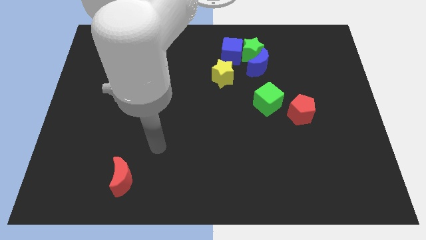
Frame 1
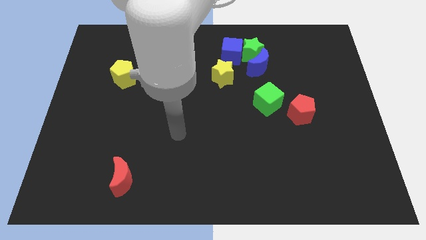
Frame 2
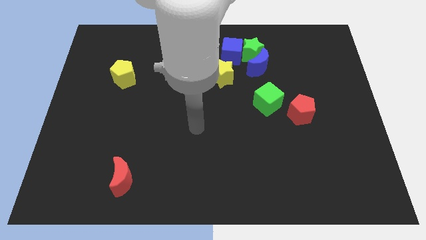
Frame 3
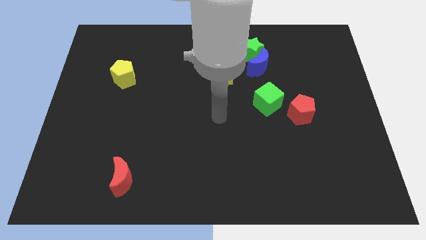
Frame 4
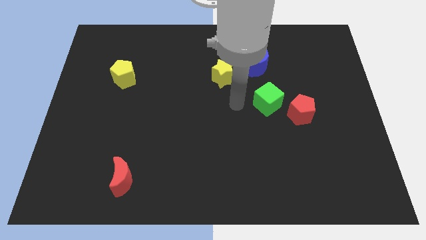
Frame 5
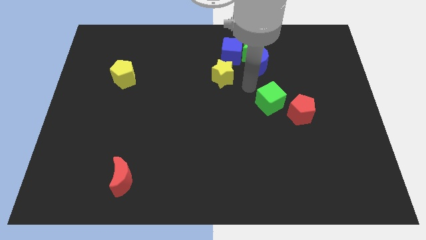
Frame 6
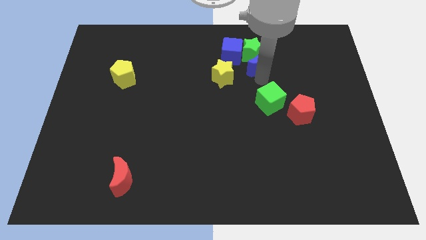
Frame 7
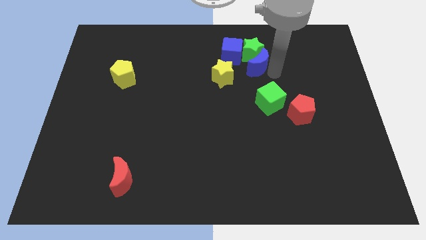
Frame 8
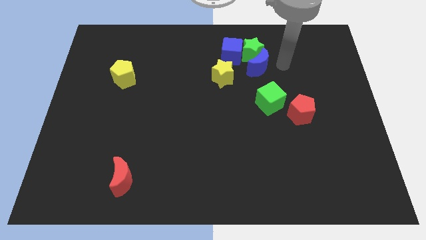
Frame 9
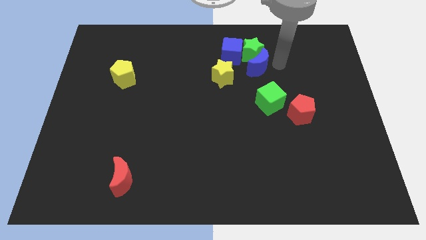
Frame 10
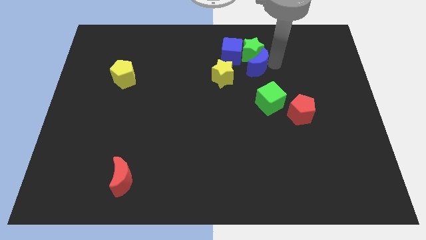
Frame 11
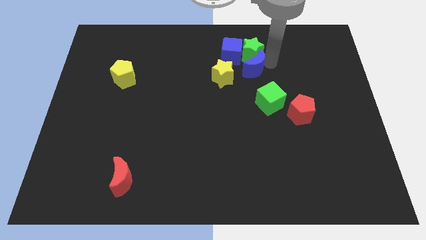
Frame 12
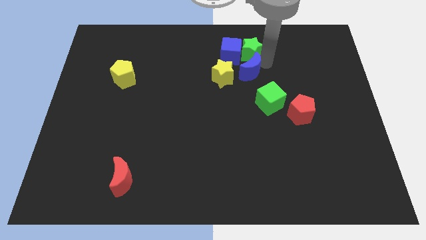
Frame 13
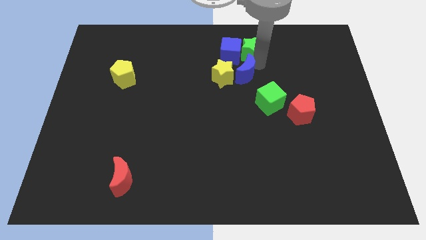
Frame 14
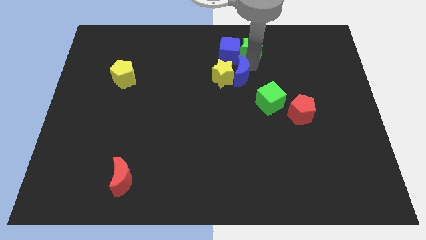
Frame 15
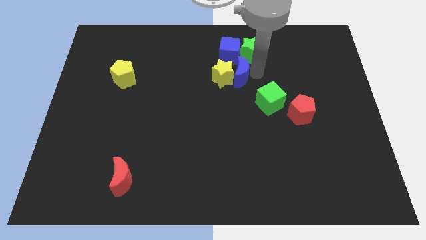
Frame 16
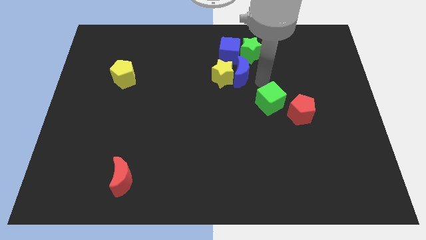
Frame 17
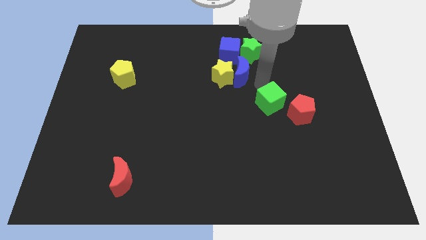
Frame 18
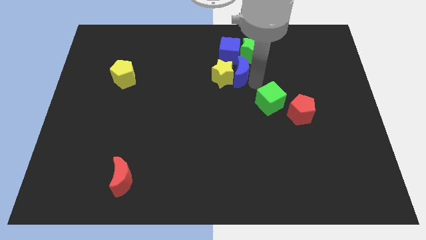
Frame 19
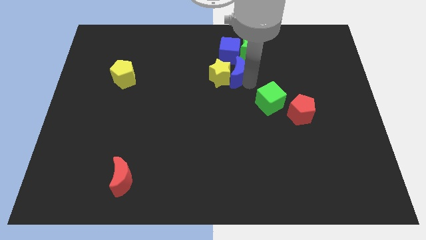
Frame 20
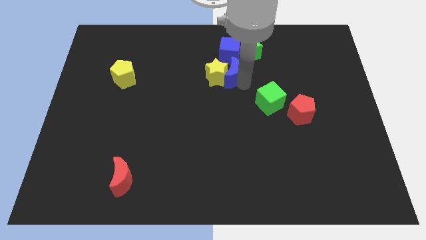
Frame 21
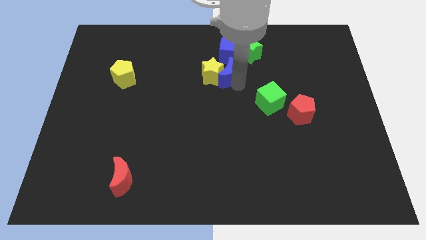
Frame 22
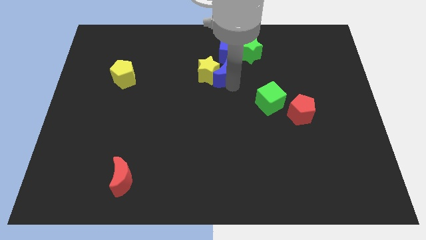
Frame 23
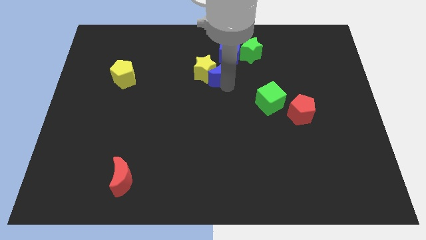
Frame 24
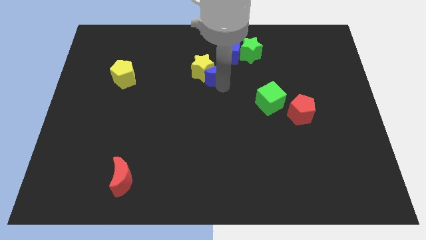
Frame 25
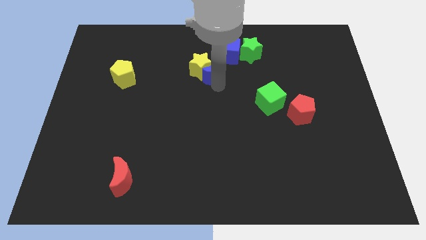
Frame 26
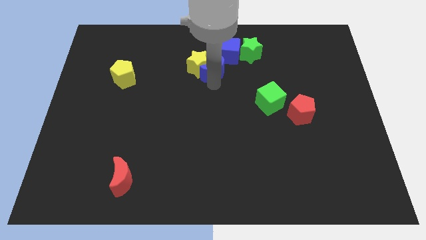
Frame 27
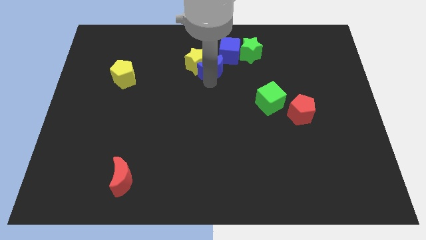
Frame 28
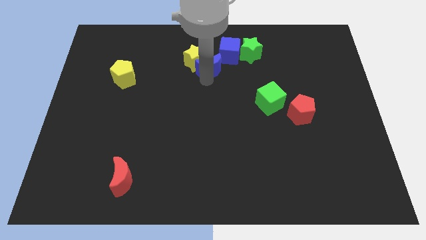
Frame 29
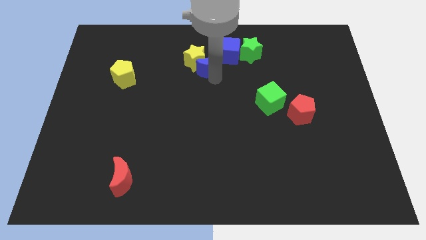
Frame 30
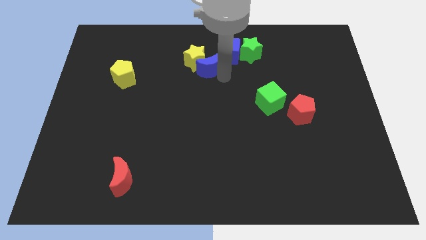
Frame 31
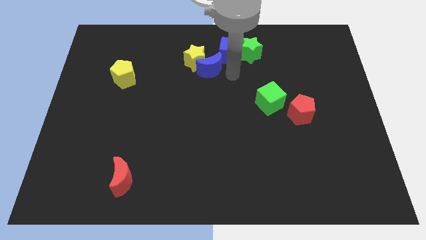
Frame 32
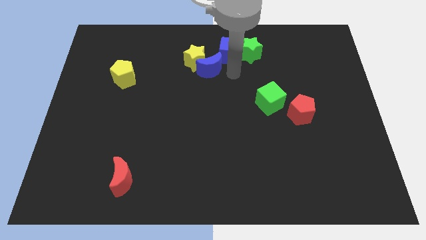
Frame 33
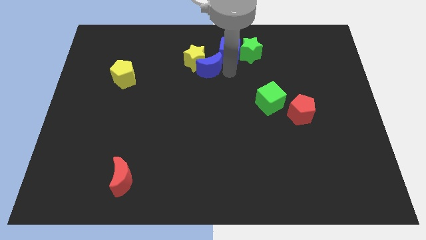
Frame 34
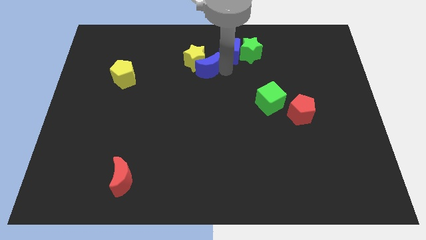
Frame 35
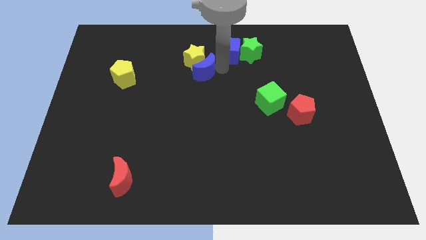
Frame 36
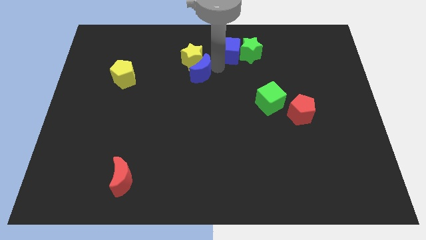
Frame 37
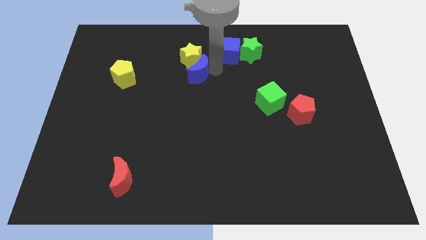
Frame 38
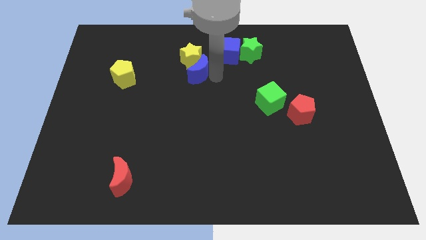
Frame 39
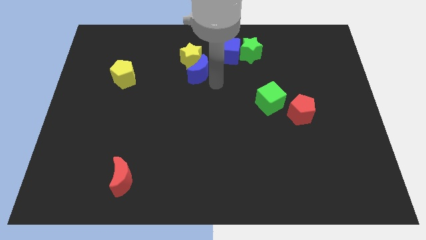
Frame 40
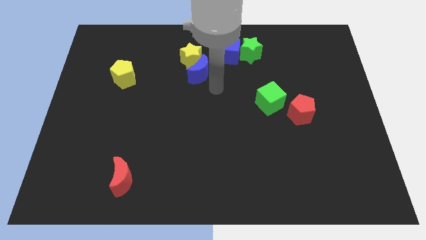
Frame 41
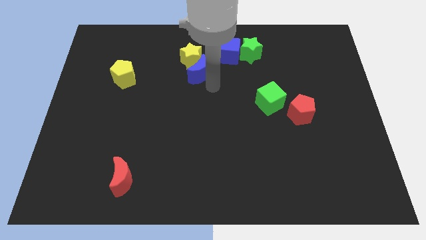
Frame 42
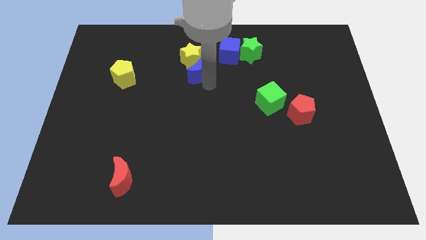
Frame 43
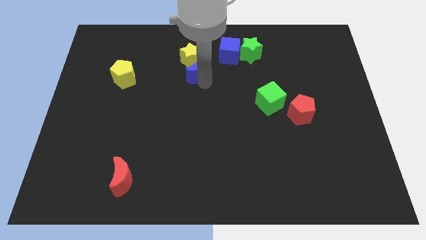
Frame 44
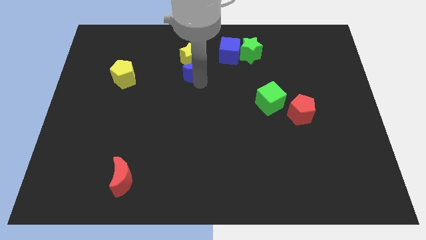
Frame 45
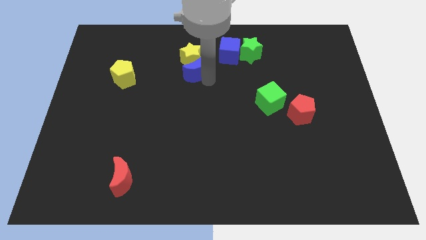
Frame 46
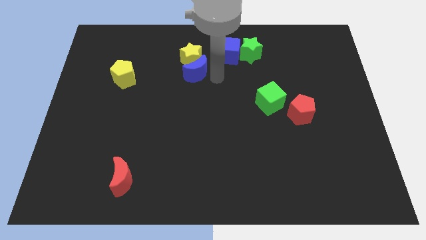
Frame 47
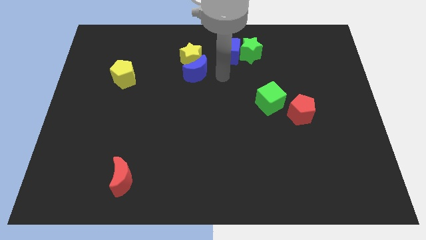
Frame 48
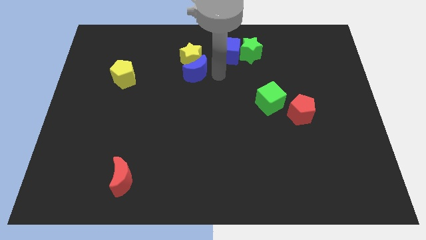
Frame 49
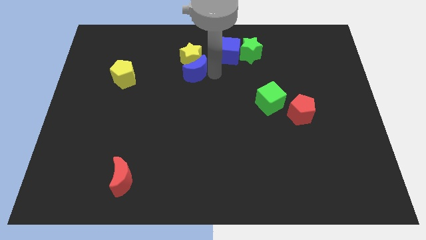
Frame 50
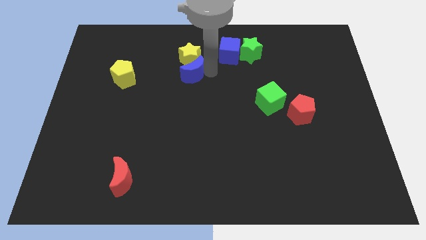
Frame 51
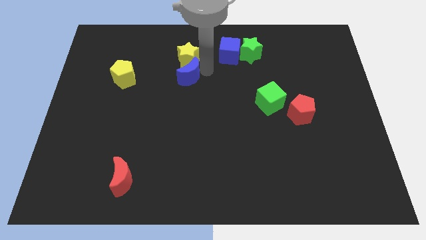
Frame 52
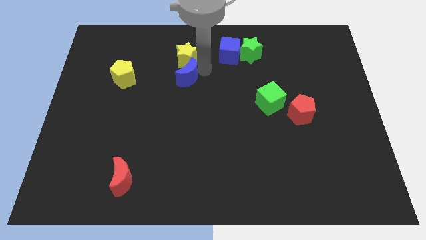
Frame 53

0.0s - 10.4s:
push the blue moon to the right side of the yellow pentagon

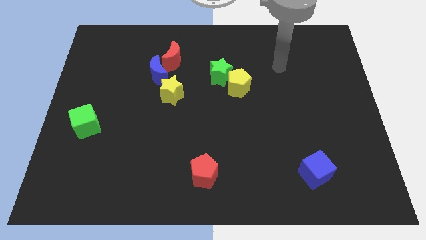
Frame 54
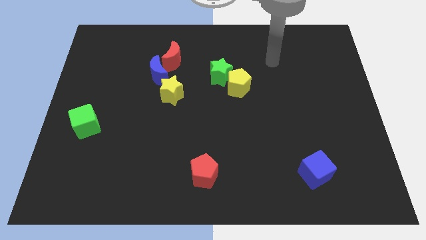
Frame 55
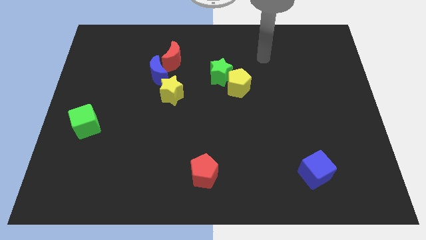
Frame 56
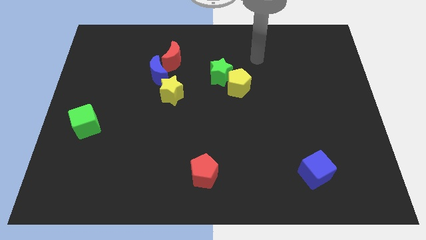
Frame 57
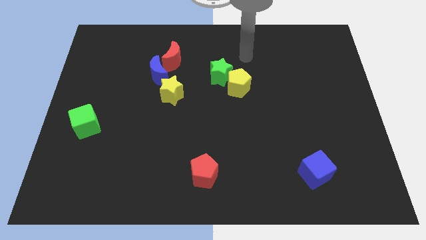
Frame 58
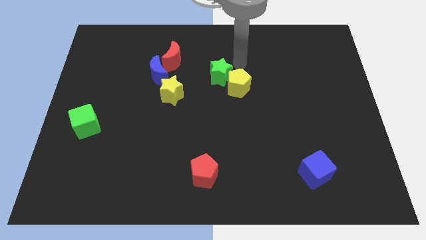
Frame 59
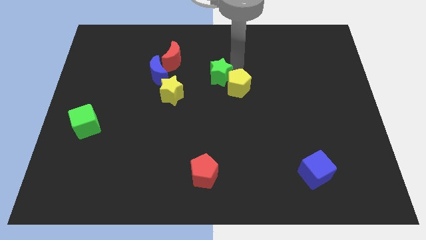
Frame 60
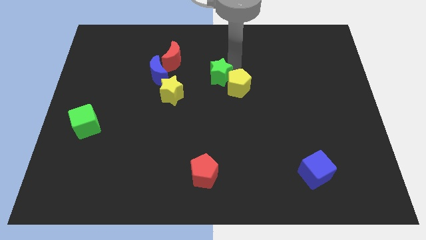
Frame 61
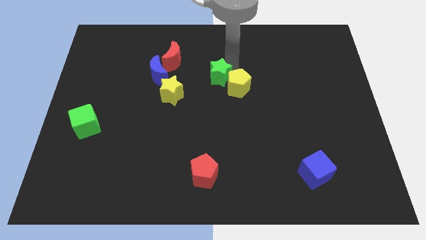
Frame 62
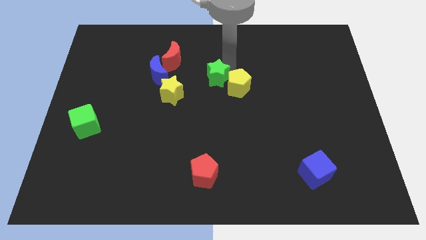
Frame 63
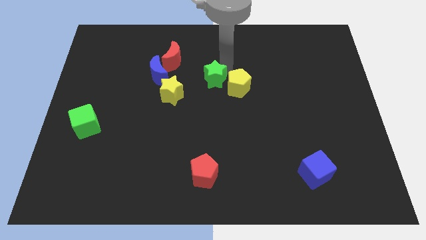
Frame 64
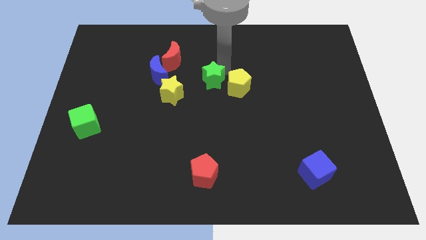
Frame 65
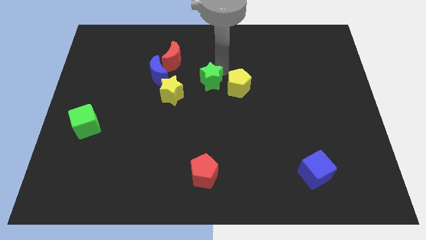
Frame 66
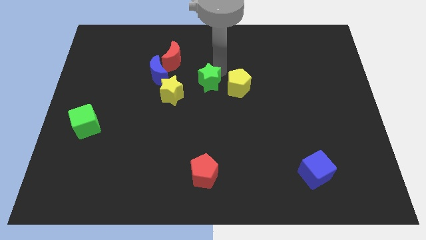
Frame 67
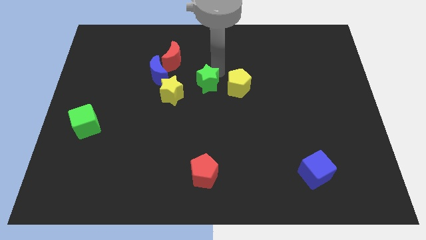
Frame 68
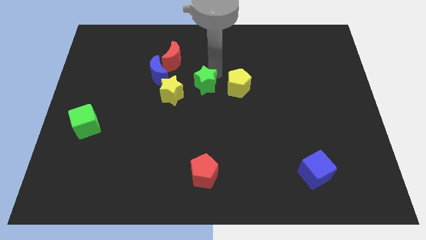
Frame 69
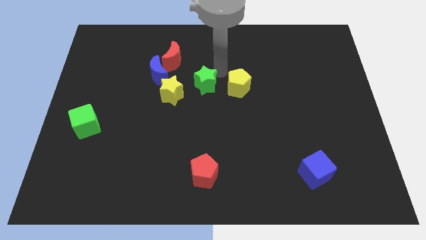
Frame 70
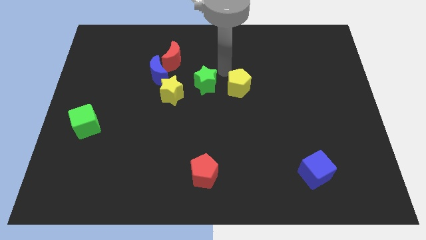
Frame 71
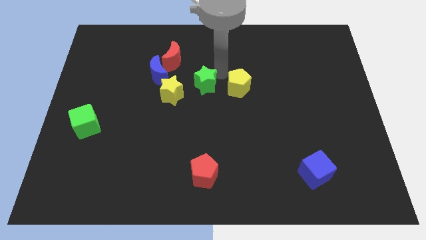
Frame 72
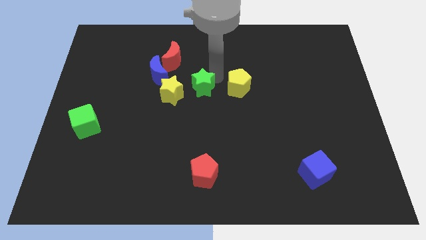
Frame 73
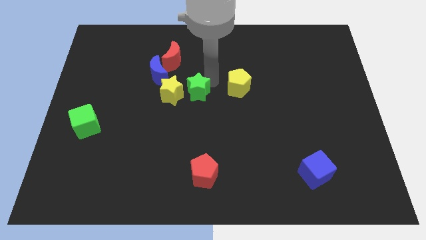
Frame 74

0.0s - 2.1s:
slide the green star to the bottom right side of the blue moon
